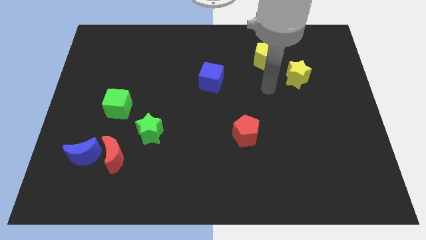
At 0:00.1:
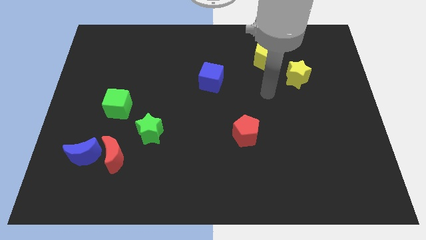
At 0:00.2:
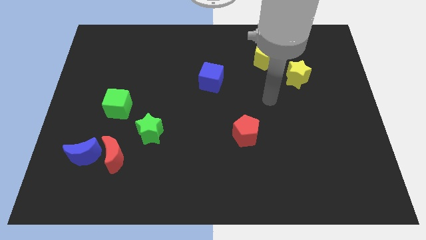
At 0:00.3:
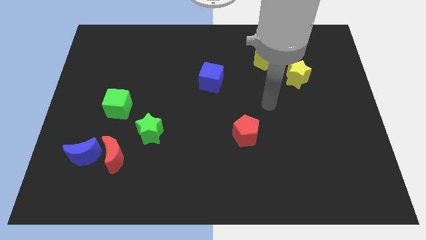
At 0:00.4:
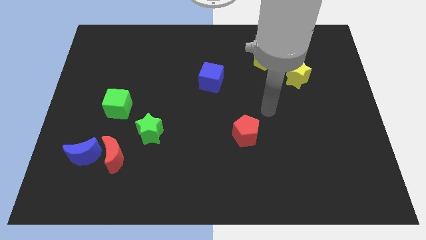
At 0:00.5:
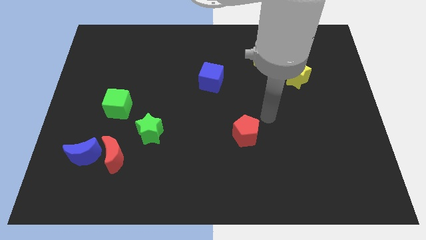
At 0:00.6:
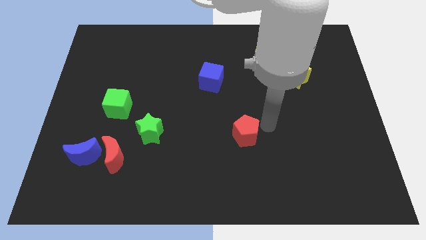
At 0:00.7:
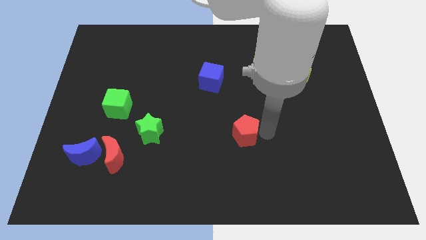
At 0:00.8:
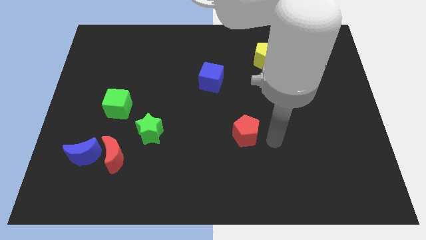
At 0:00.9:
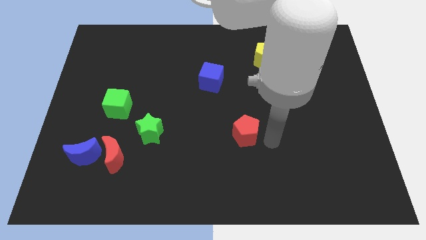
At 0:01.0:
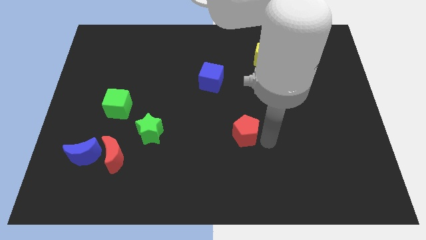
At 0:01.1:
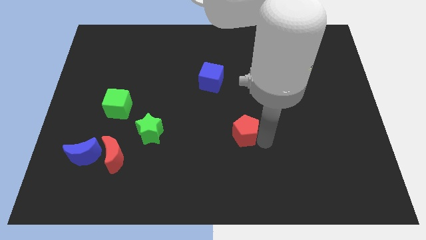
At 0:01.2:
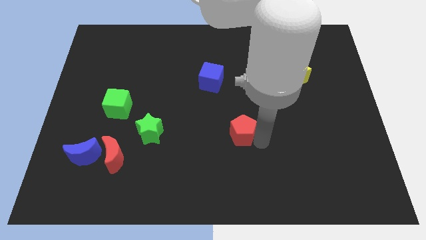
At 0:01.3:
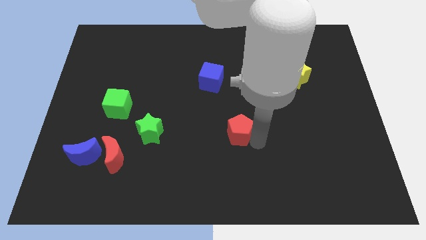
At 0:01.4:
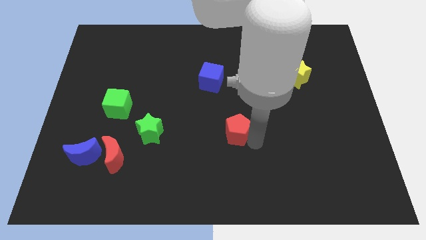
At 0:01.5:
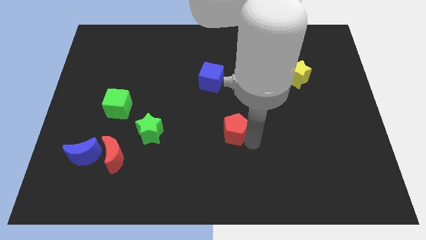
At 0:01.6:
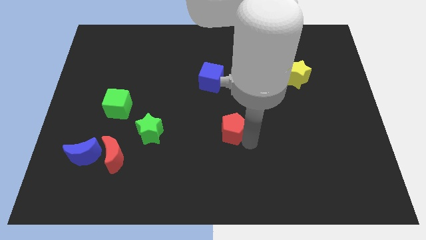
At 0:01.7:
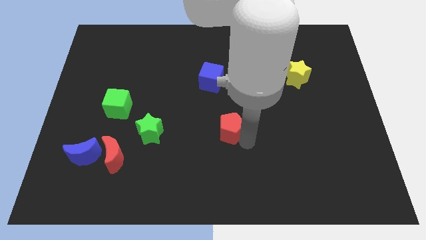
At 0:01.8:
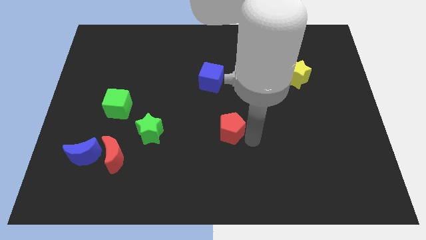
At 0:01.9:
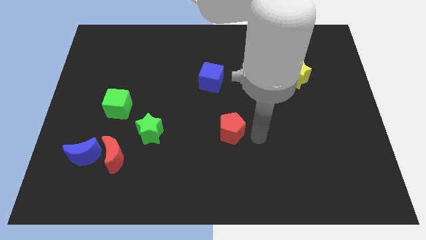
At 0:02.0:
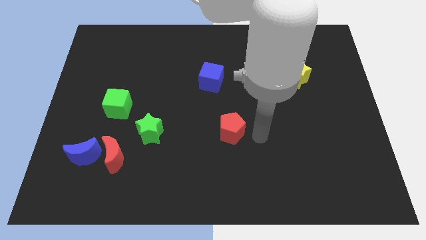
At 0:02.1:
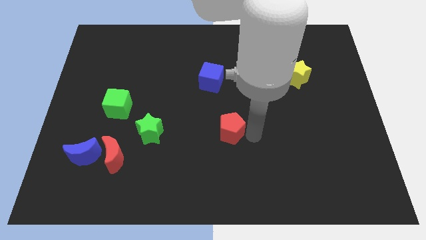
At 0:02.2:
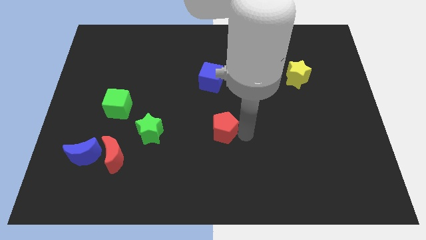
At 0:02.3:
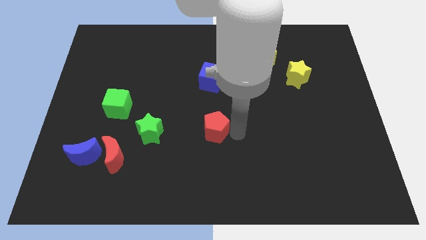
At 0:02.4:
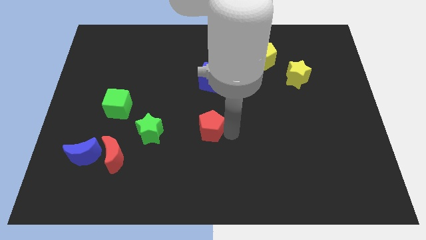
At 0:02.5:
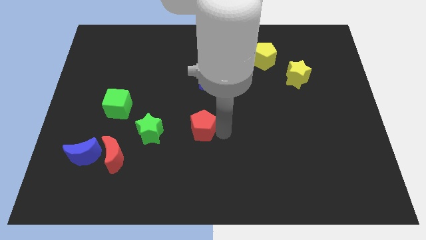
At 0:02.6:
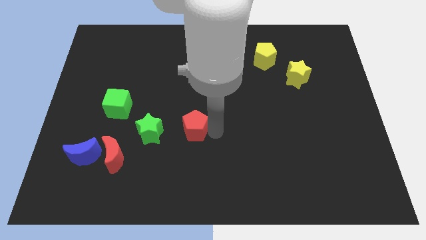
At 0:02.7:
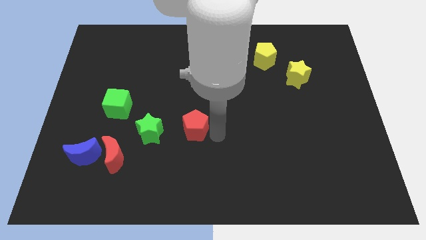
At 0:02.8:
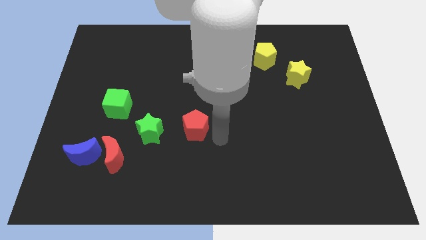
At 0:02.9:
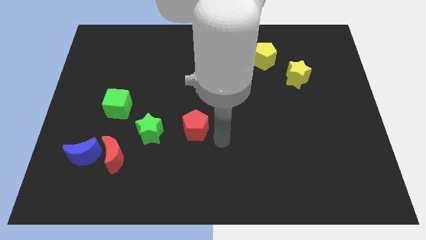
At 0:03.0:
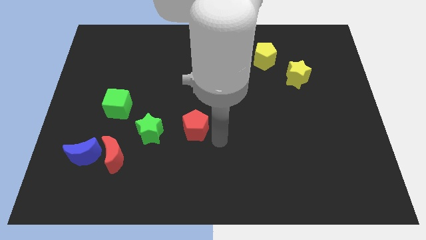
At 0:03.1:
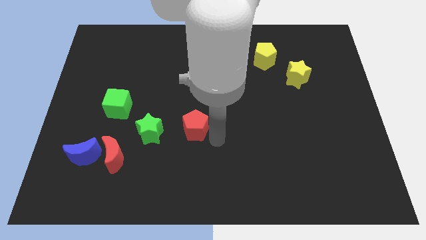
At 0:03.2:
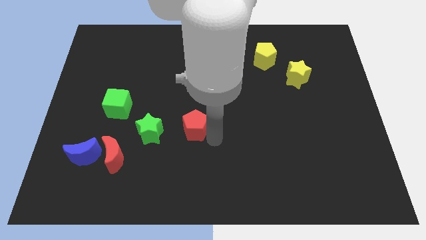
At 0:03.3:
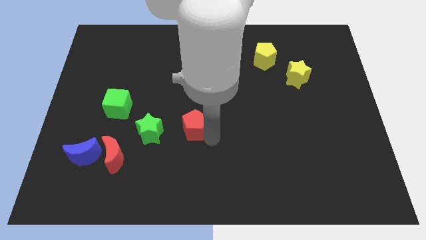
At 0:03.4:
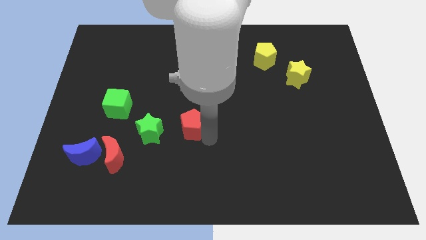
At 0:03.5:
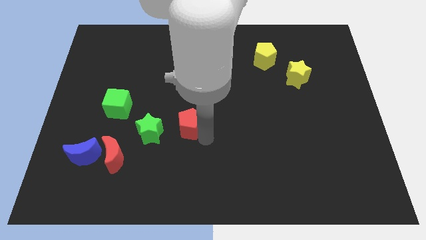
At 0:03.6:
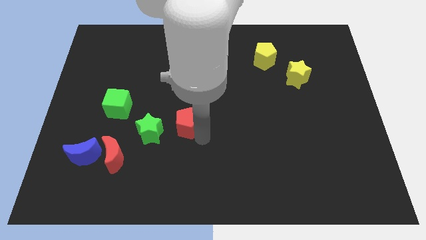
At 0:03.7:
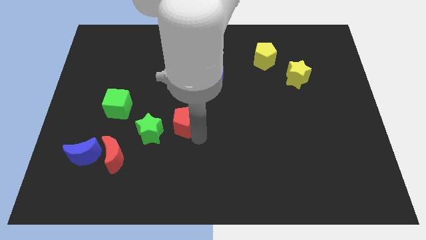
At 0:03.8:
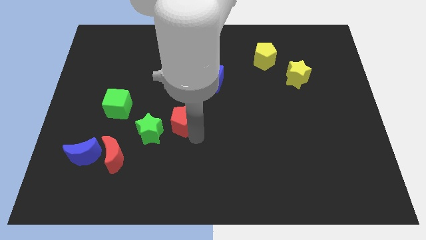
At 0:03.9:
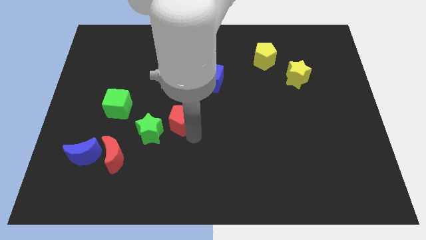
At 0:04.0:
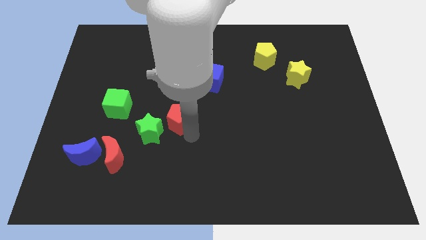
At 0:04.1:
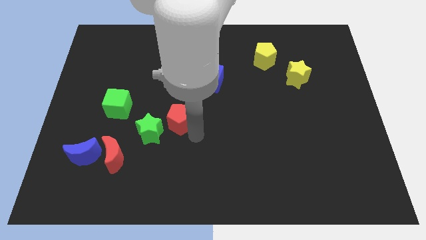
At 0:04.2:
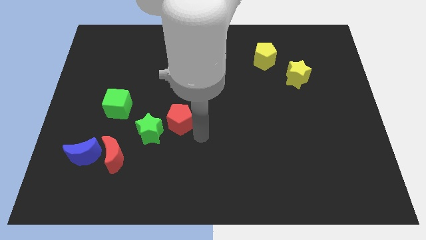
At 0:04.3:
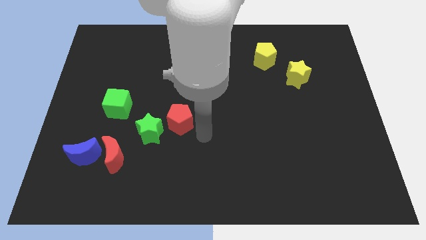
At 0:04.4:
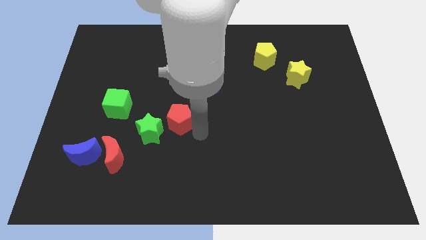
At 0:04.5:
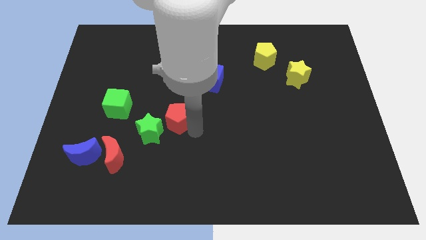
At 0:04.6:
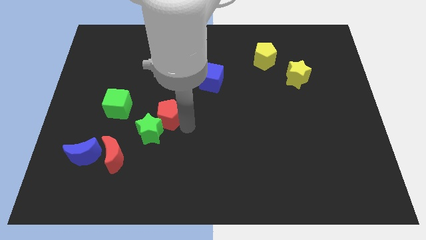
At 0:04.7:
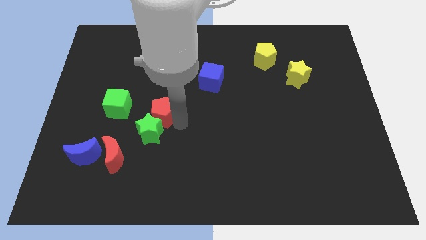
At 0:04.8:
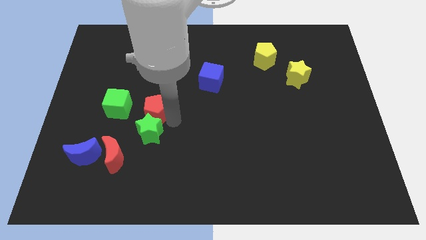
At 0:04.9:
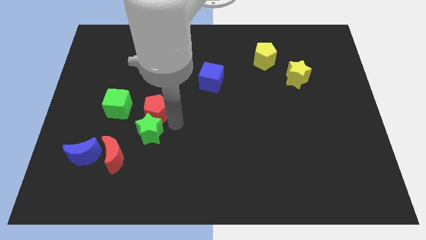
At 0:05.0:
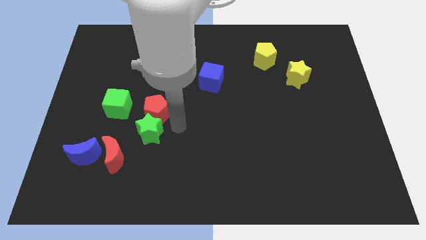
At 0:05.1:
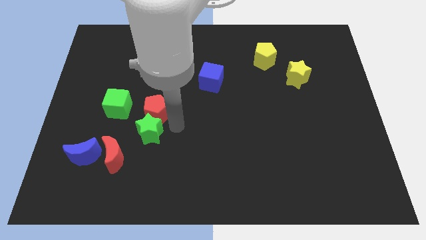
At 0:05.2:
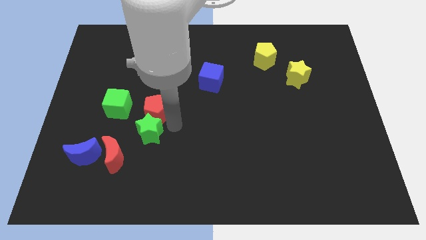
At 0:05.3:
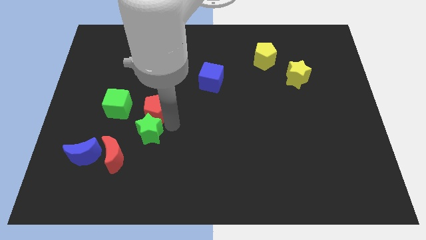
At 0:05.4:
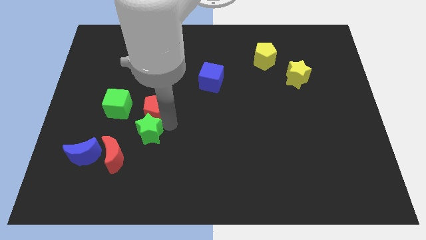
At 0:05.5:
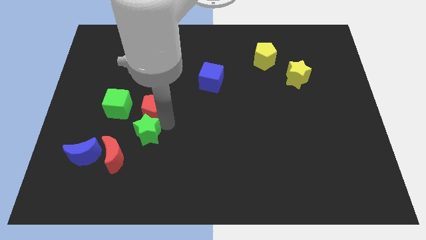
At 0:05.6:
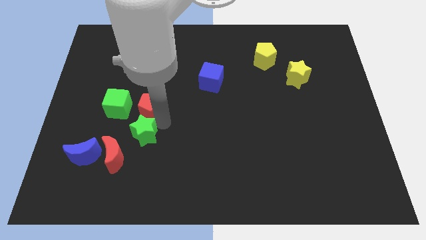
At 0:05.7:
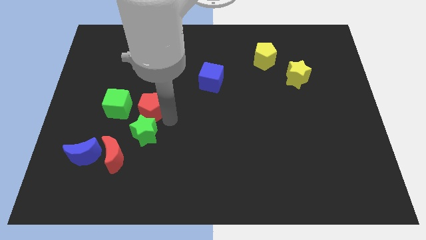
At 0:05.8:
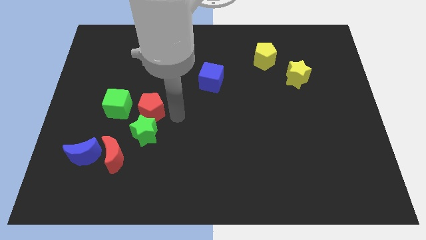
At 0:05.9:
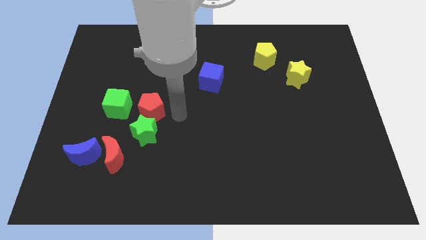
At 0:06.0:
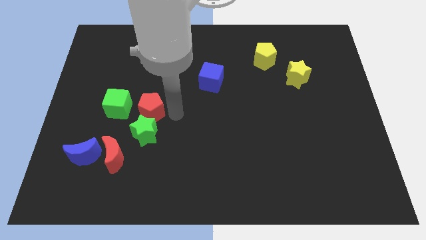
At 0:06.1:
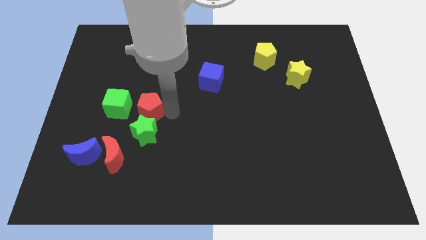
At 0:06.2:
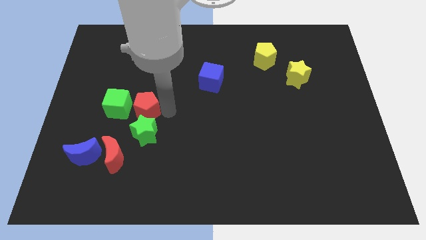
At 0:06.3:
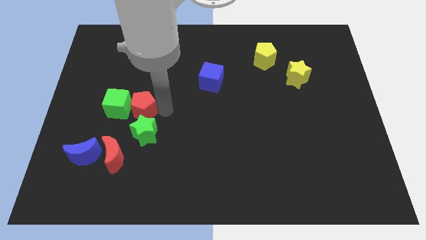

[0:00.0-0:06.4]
push the red pentagon towards the green cube
